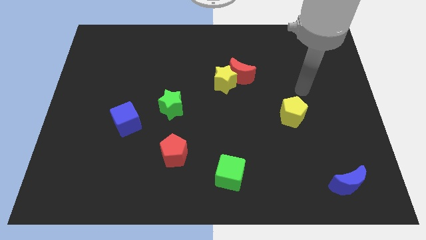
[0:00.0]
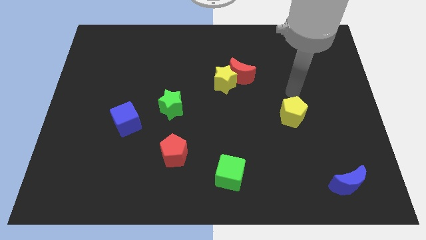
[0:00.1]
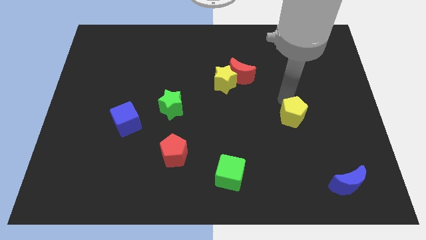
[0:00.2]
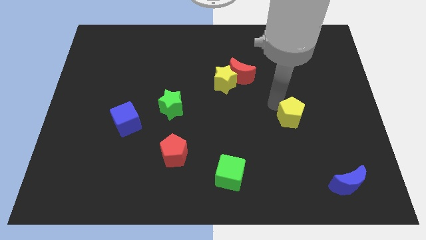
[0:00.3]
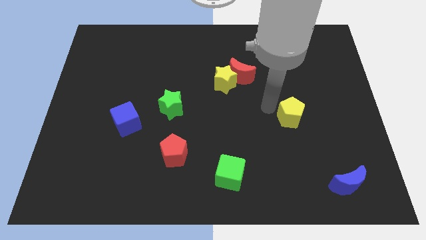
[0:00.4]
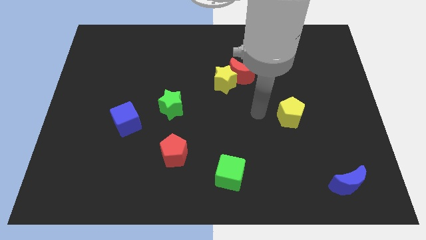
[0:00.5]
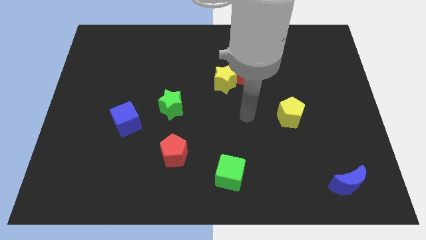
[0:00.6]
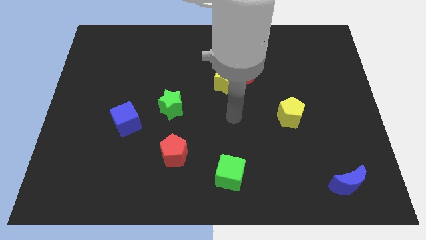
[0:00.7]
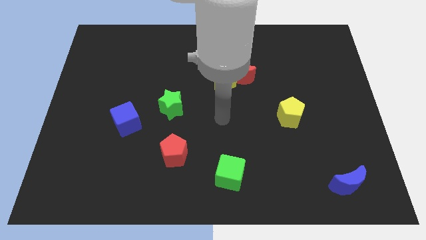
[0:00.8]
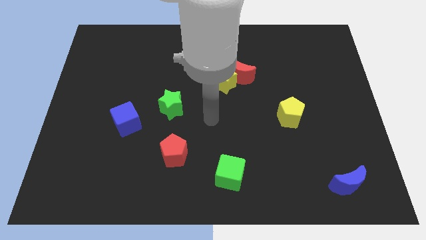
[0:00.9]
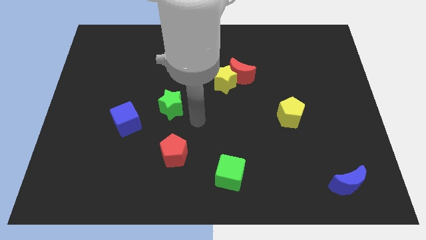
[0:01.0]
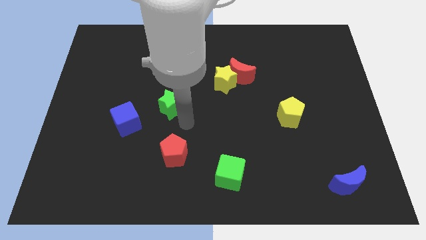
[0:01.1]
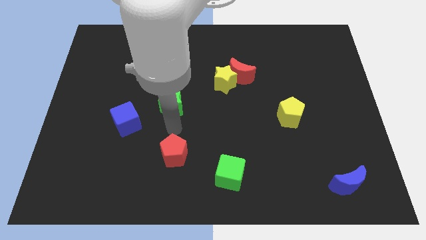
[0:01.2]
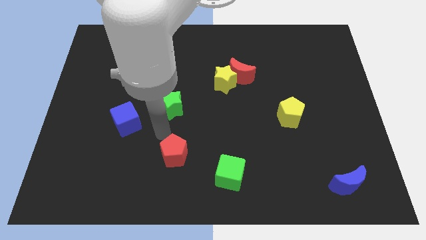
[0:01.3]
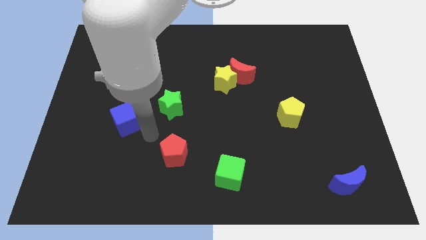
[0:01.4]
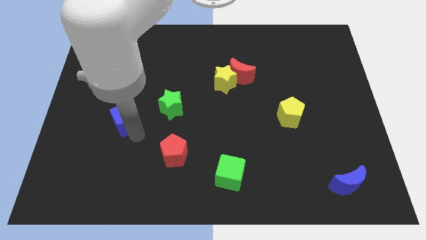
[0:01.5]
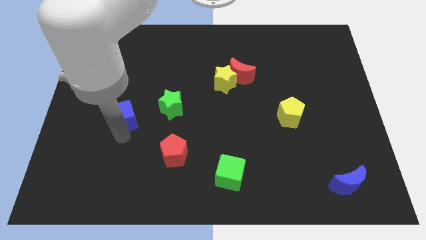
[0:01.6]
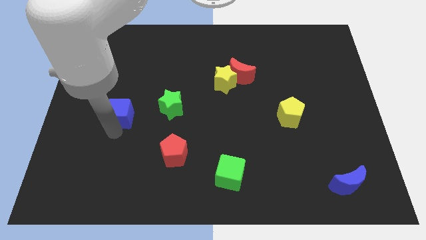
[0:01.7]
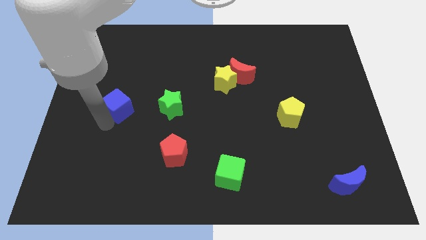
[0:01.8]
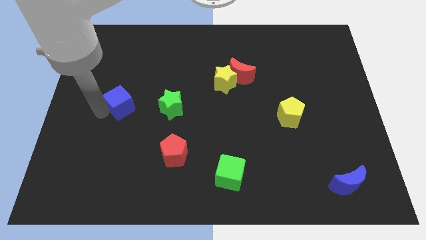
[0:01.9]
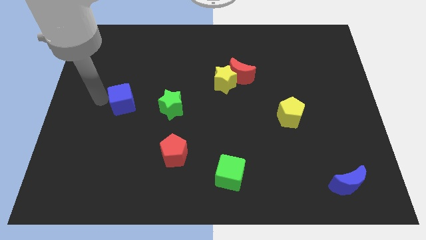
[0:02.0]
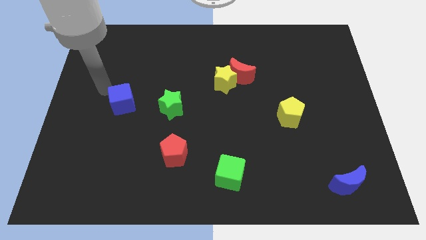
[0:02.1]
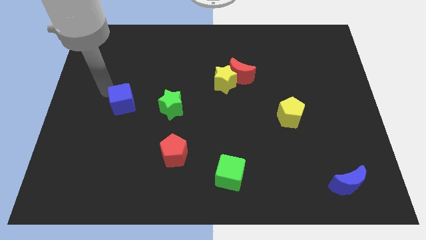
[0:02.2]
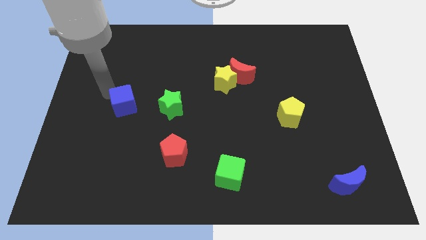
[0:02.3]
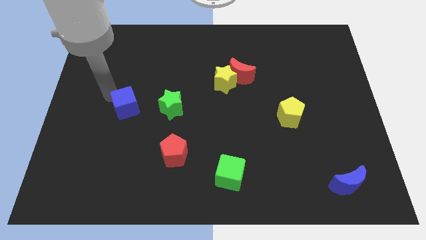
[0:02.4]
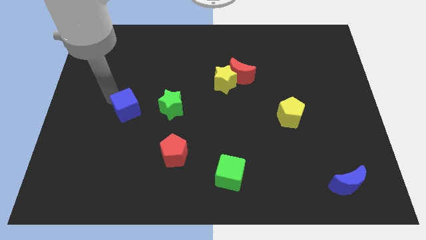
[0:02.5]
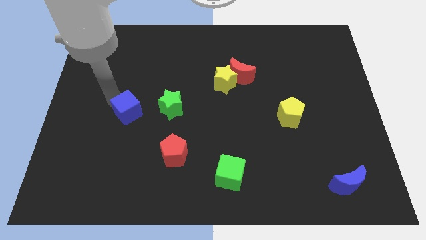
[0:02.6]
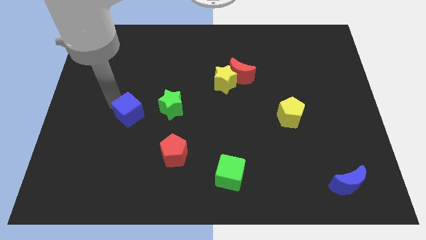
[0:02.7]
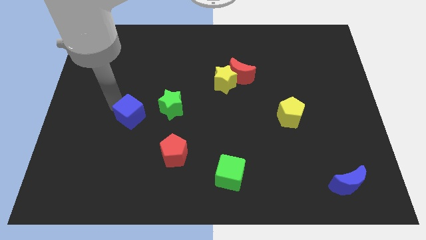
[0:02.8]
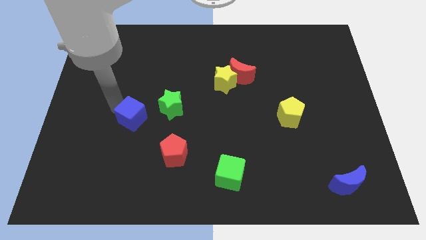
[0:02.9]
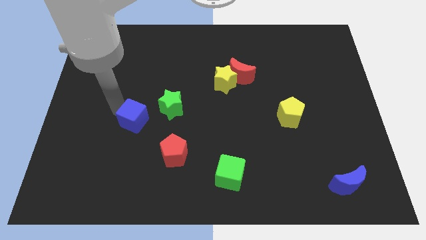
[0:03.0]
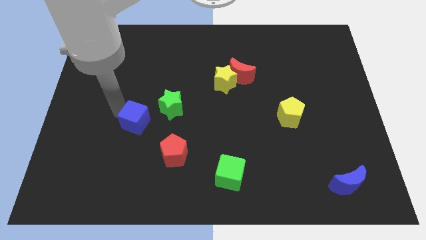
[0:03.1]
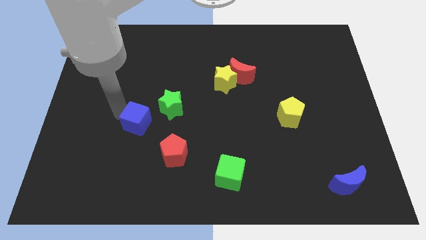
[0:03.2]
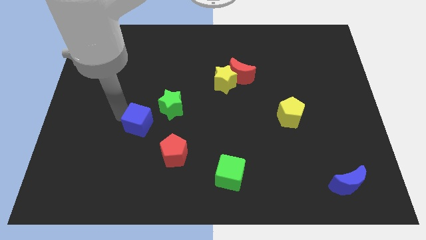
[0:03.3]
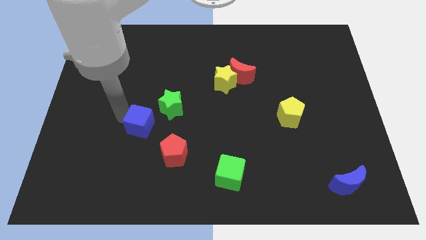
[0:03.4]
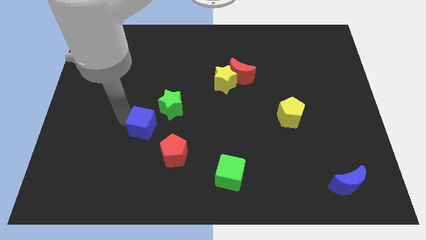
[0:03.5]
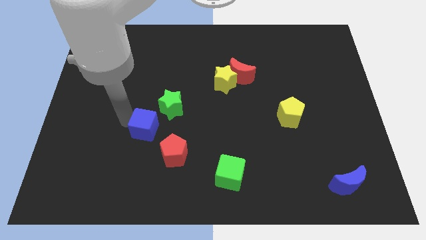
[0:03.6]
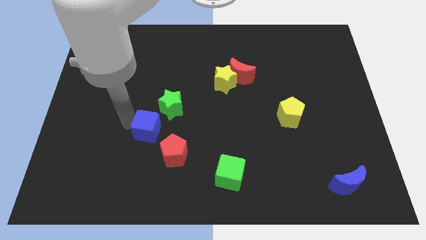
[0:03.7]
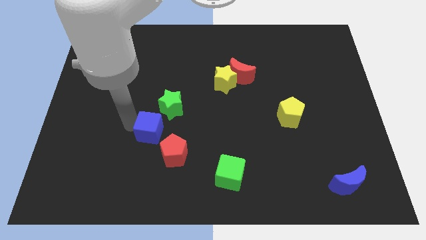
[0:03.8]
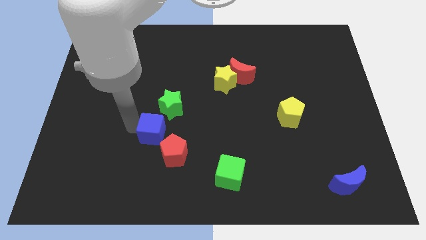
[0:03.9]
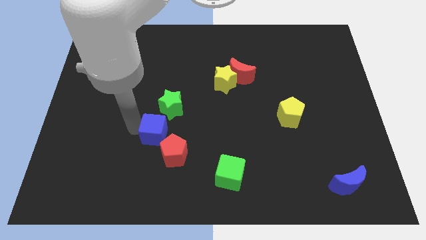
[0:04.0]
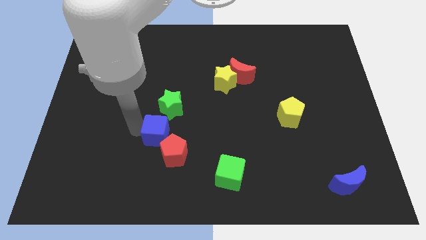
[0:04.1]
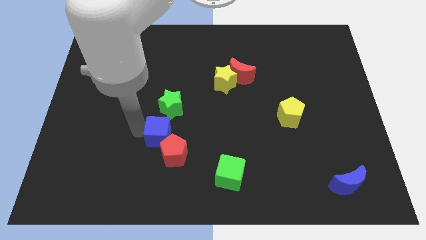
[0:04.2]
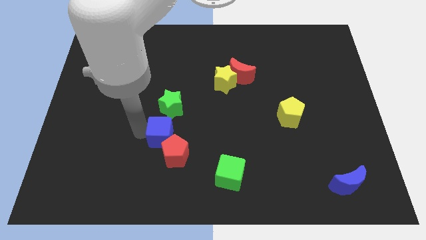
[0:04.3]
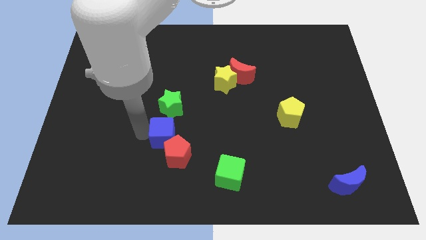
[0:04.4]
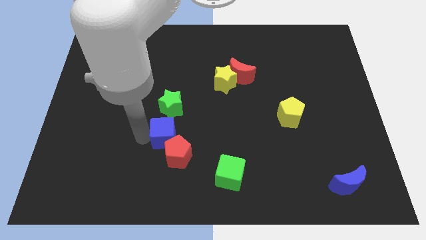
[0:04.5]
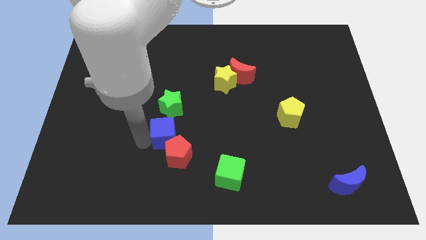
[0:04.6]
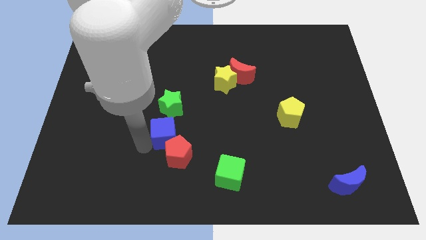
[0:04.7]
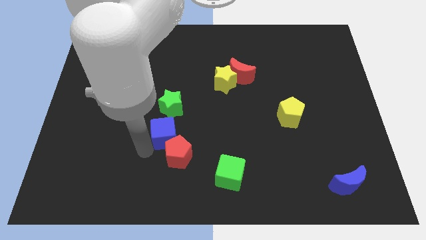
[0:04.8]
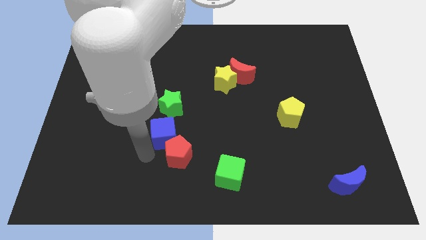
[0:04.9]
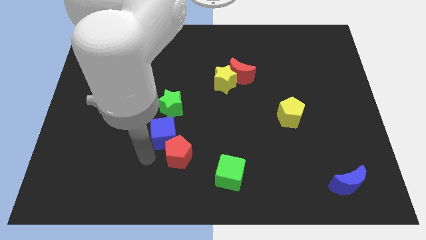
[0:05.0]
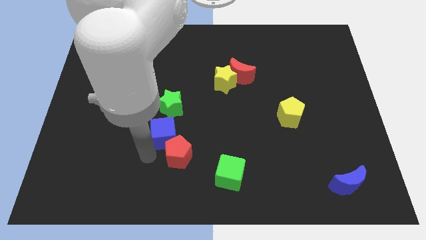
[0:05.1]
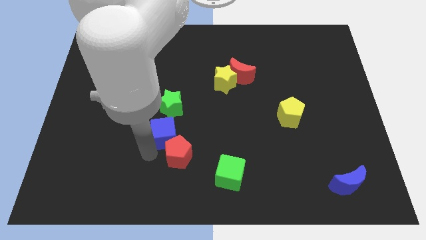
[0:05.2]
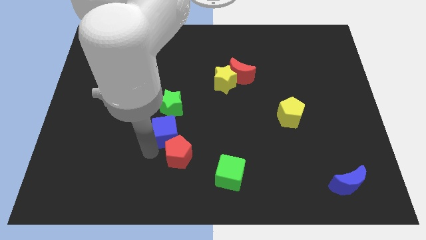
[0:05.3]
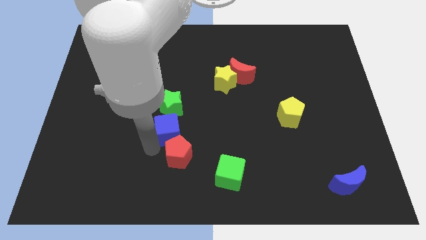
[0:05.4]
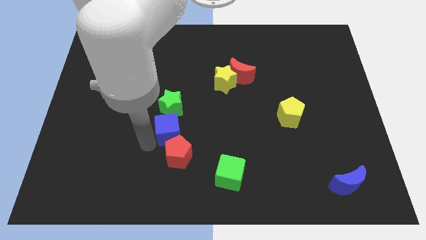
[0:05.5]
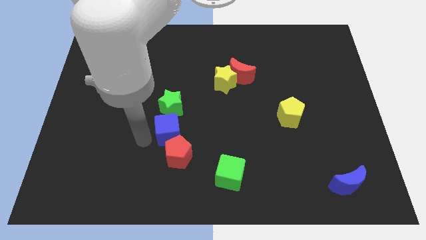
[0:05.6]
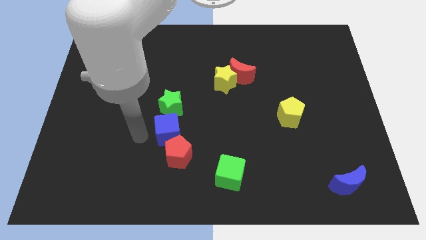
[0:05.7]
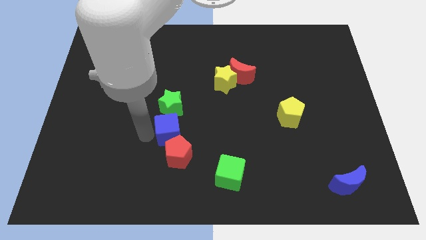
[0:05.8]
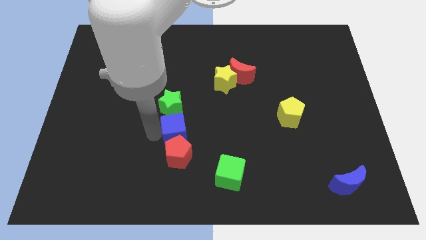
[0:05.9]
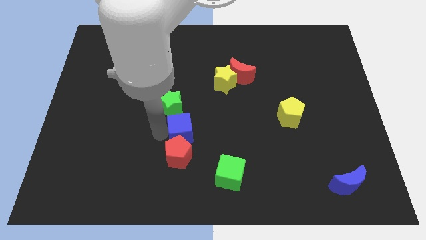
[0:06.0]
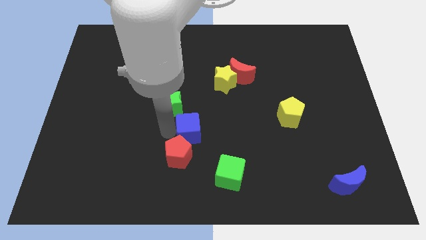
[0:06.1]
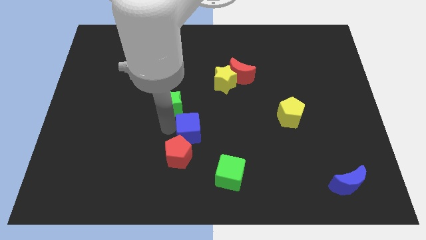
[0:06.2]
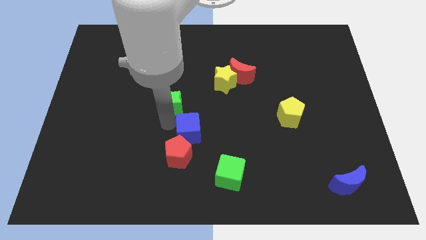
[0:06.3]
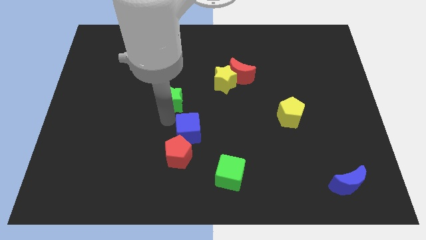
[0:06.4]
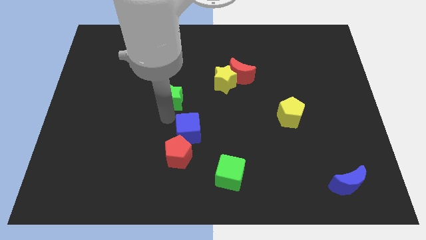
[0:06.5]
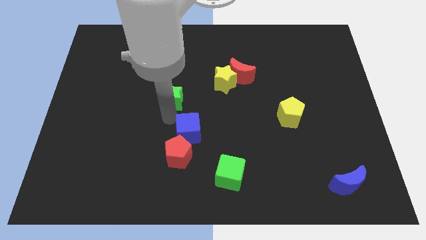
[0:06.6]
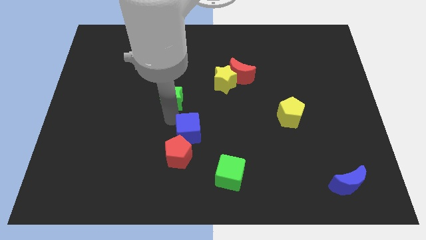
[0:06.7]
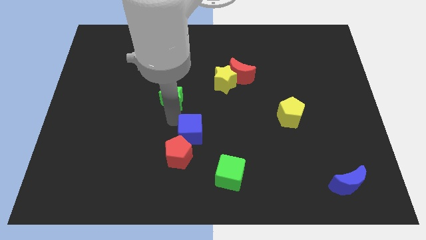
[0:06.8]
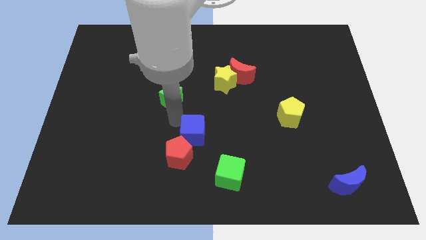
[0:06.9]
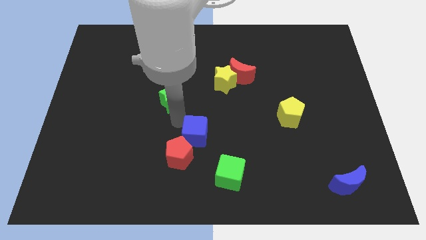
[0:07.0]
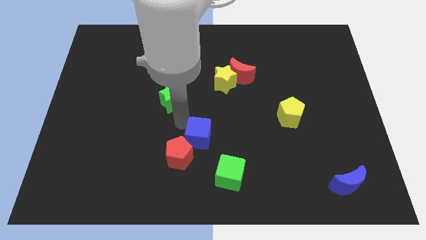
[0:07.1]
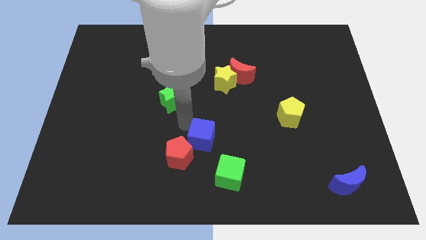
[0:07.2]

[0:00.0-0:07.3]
put the blue cube just right of the red pentagon
